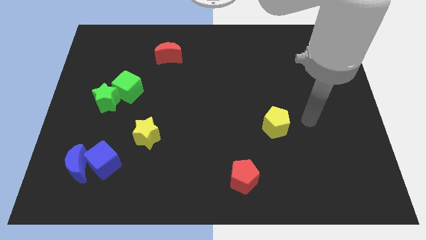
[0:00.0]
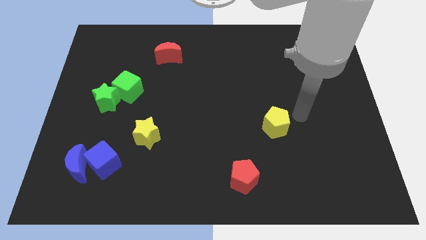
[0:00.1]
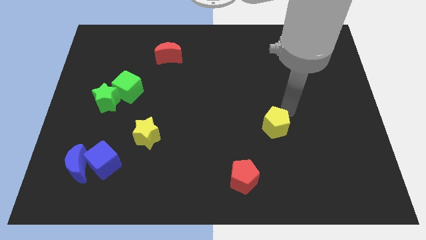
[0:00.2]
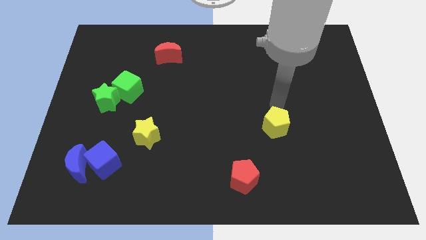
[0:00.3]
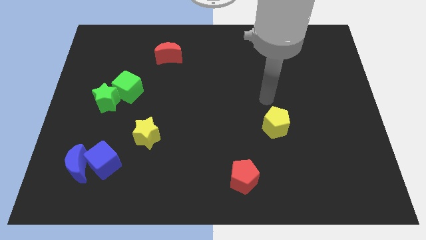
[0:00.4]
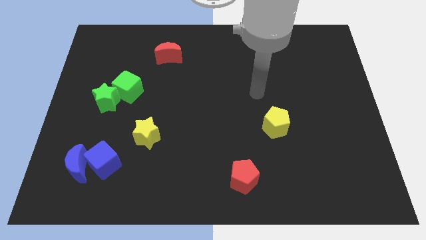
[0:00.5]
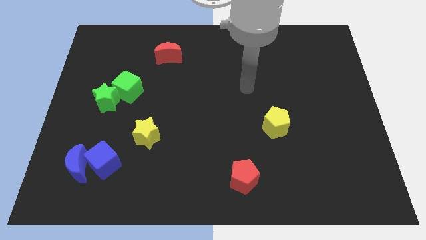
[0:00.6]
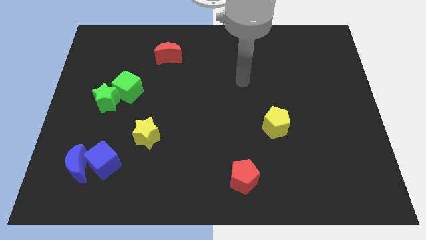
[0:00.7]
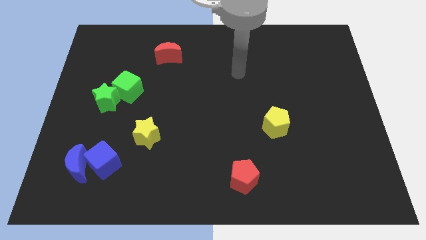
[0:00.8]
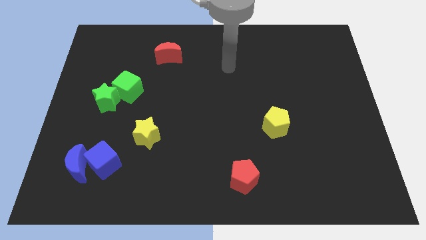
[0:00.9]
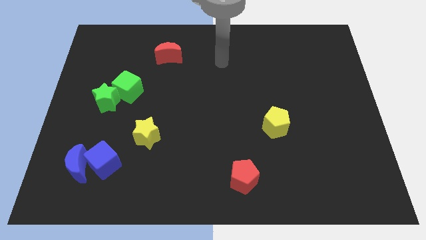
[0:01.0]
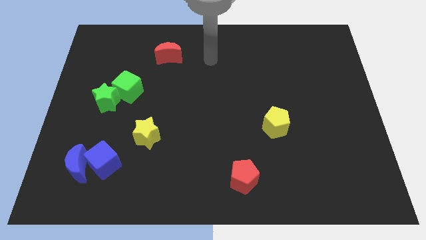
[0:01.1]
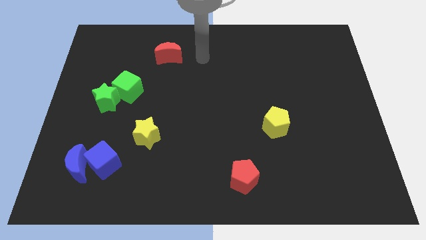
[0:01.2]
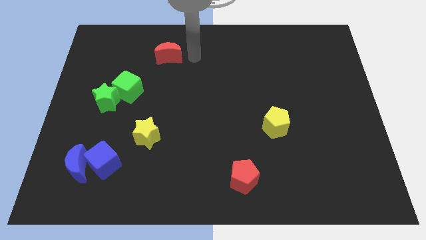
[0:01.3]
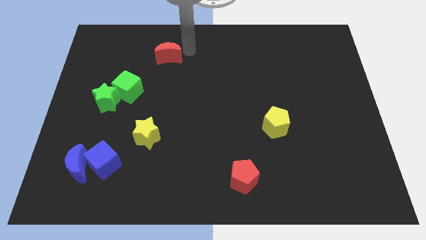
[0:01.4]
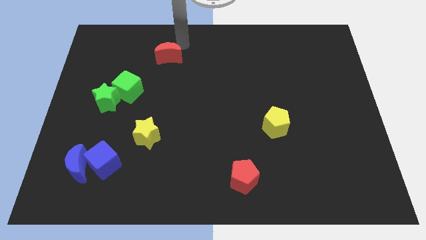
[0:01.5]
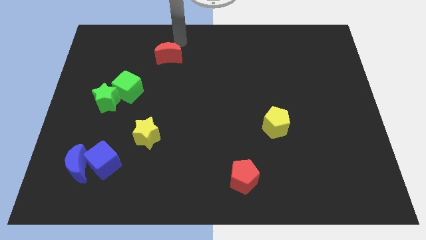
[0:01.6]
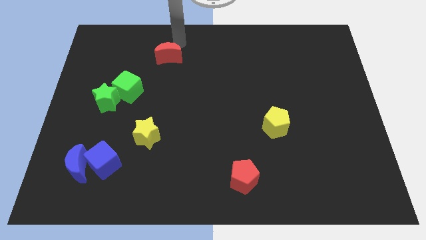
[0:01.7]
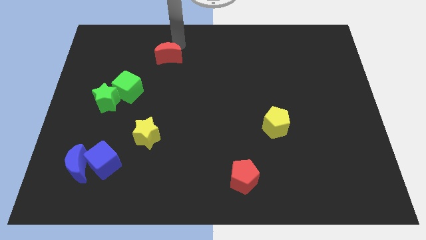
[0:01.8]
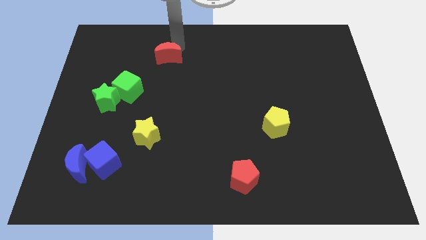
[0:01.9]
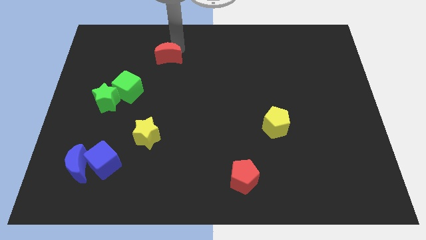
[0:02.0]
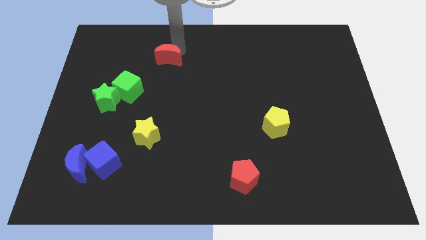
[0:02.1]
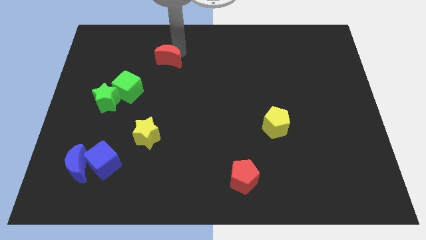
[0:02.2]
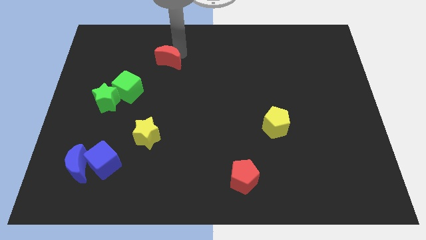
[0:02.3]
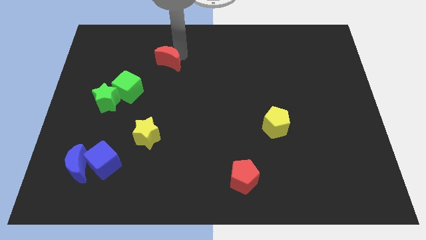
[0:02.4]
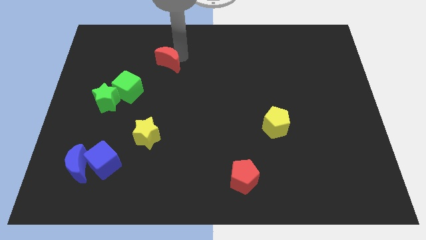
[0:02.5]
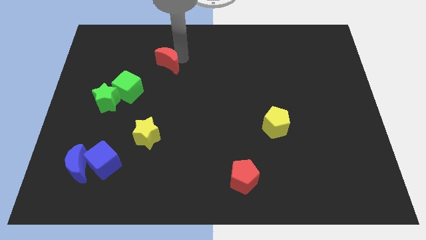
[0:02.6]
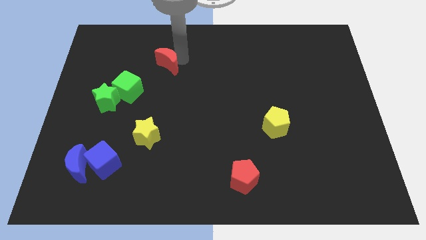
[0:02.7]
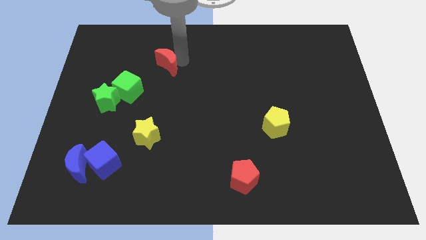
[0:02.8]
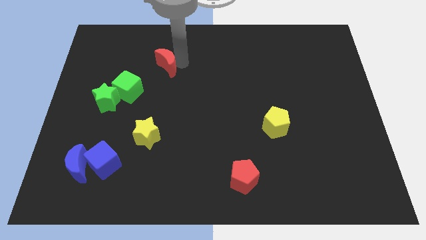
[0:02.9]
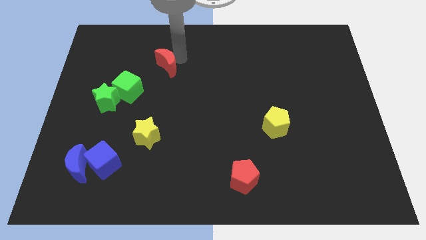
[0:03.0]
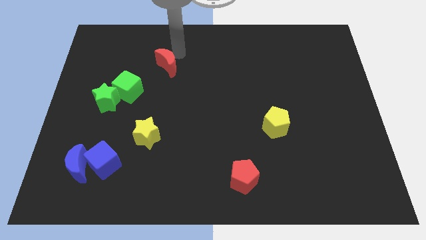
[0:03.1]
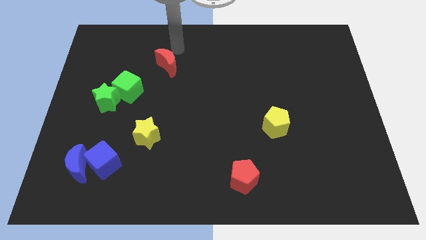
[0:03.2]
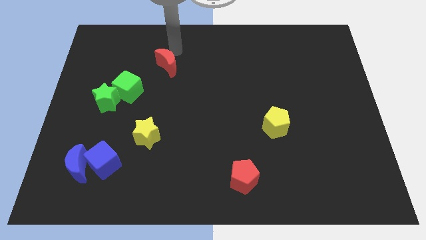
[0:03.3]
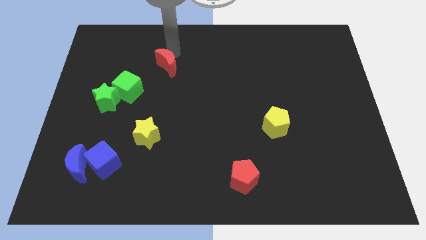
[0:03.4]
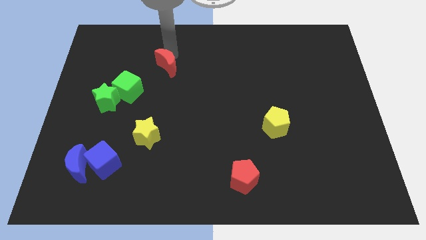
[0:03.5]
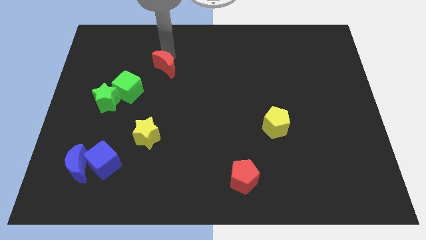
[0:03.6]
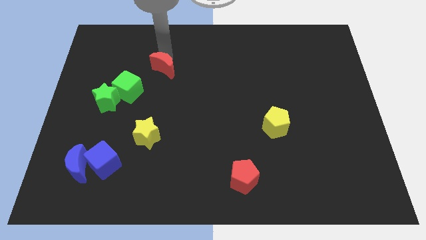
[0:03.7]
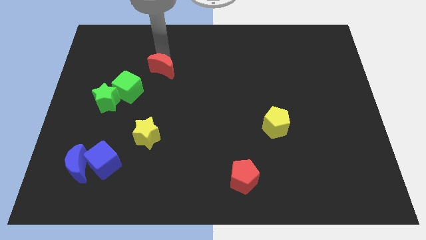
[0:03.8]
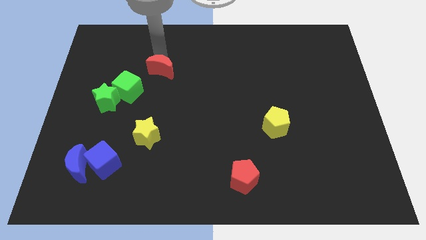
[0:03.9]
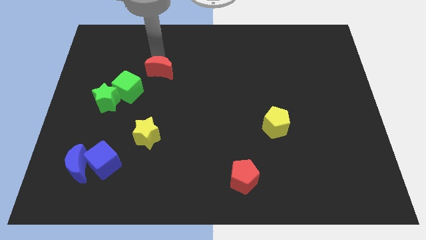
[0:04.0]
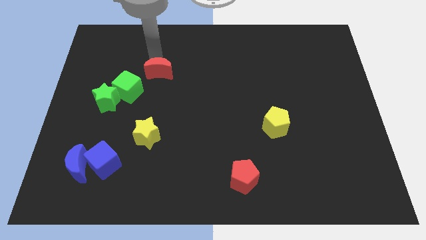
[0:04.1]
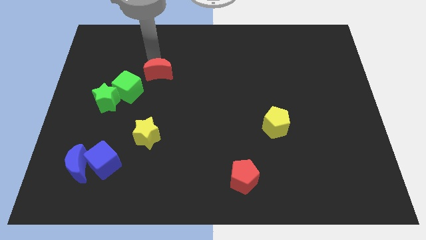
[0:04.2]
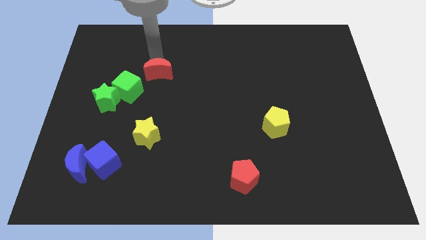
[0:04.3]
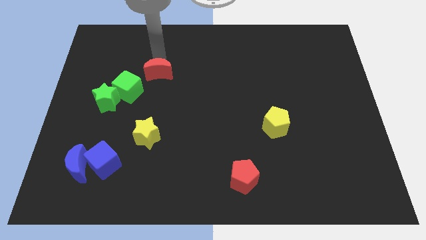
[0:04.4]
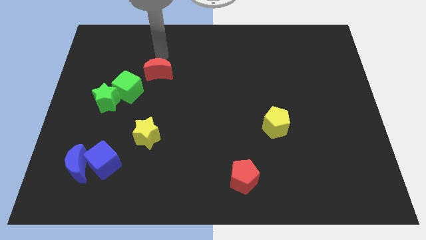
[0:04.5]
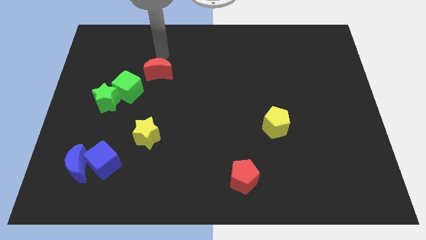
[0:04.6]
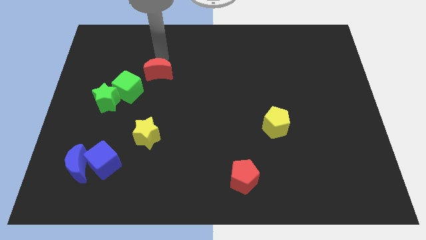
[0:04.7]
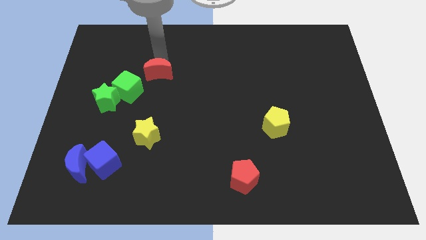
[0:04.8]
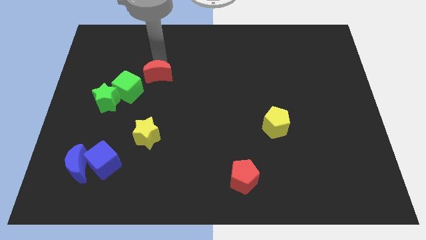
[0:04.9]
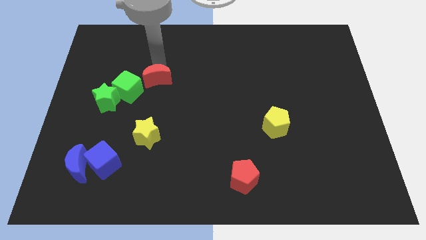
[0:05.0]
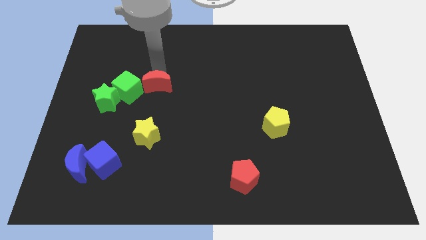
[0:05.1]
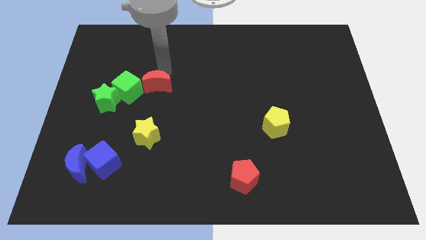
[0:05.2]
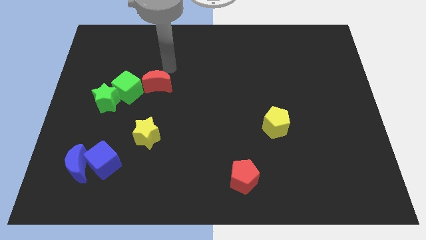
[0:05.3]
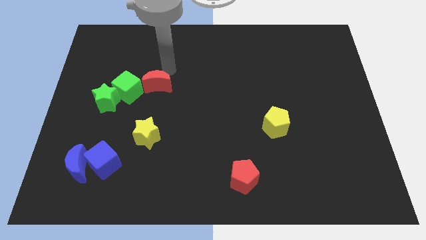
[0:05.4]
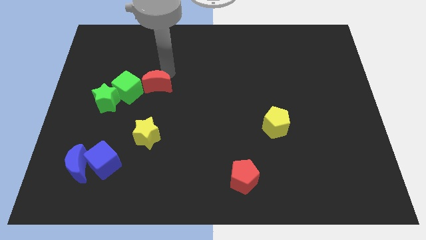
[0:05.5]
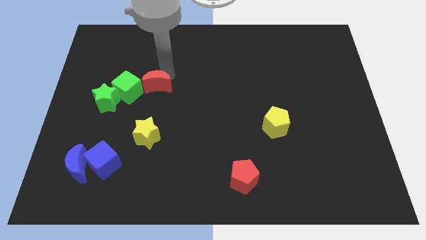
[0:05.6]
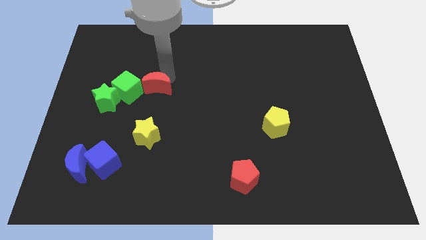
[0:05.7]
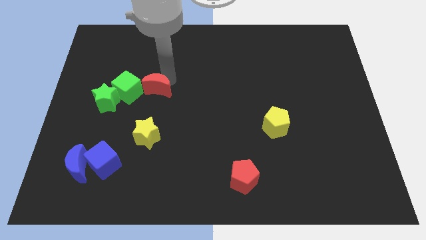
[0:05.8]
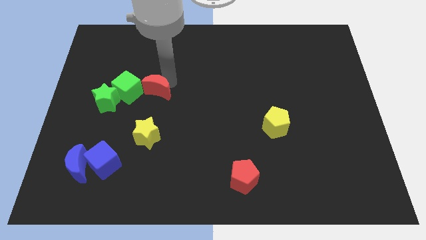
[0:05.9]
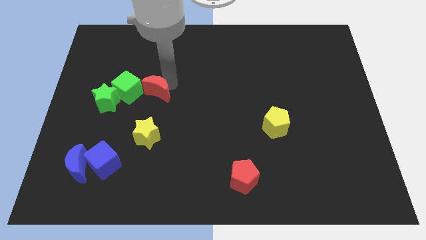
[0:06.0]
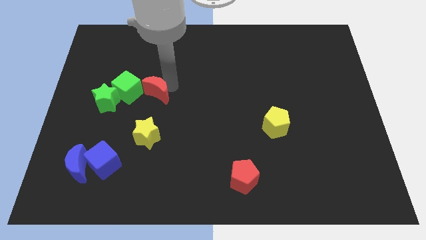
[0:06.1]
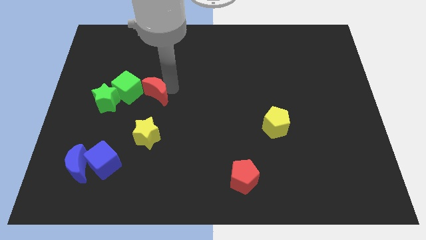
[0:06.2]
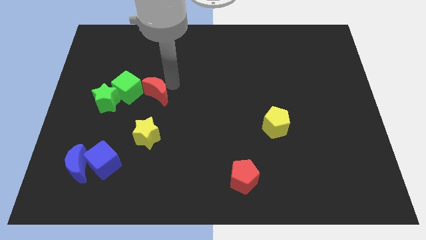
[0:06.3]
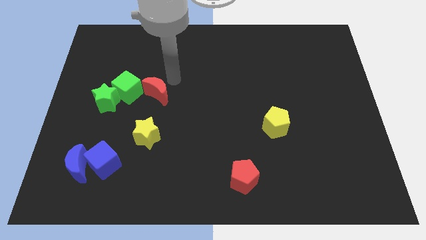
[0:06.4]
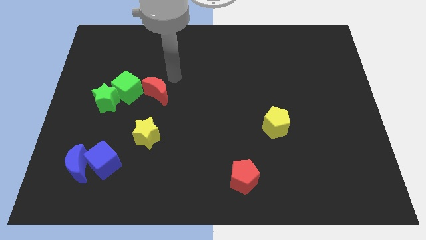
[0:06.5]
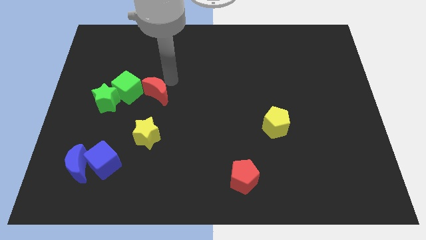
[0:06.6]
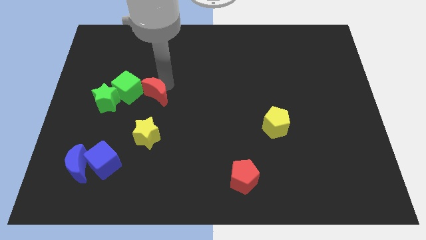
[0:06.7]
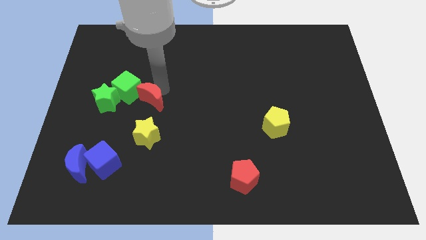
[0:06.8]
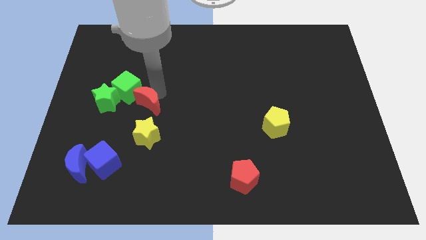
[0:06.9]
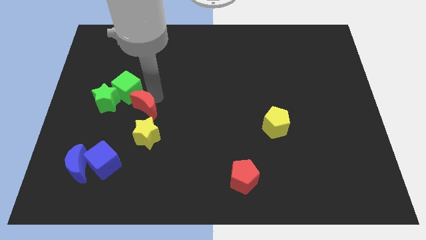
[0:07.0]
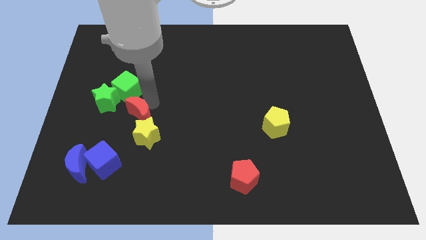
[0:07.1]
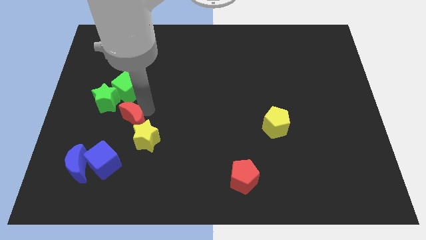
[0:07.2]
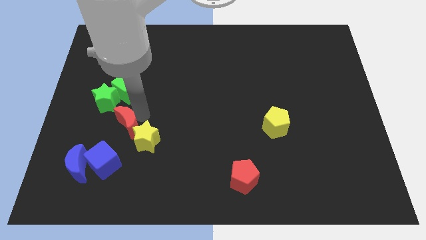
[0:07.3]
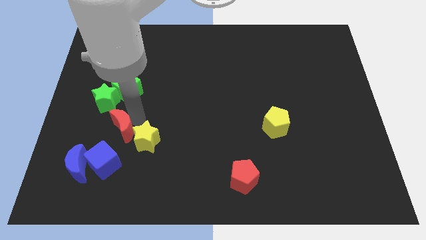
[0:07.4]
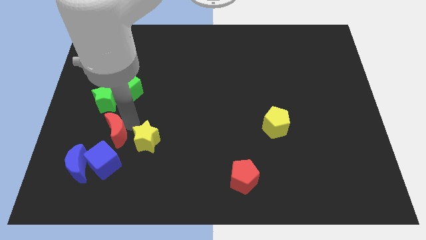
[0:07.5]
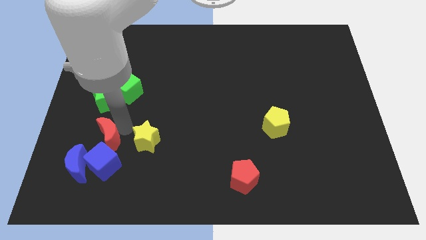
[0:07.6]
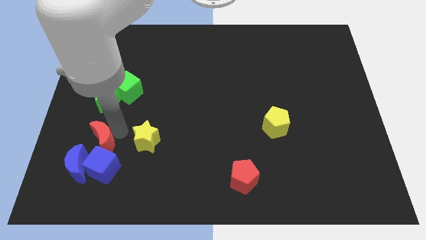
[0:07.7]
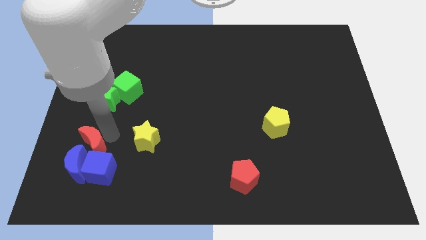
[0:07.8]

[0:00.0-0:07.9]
push the red moon towards the blue moon
